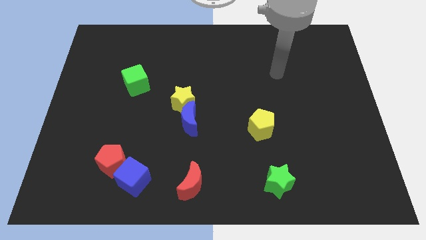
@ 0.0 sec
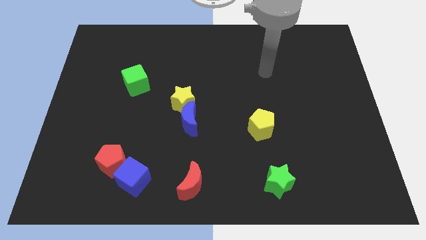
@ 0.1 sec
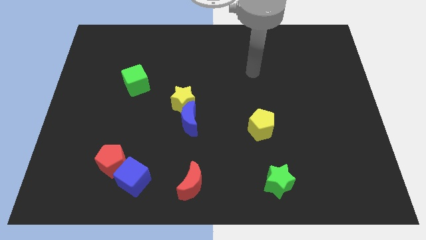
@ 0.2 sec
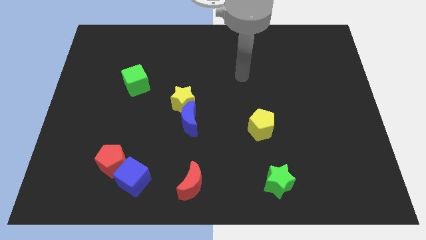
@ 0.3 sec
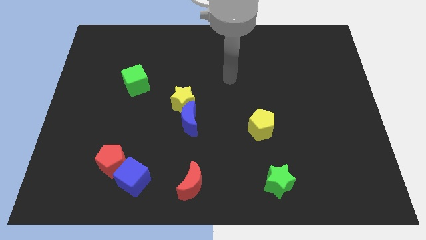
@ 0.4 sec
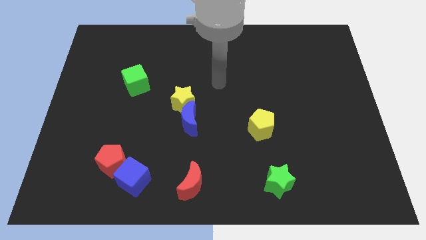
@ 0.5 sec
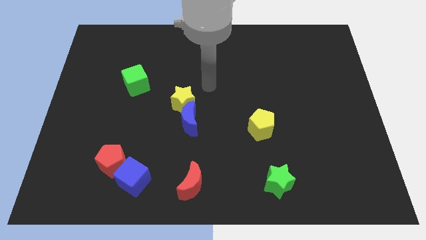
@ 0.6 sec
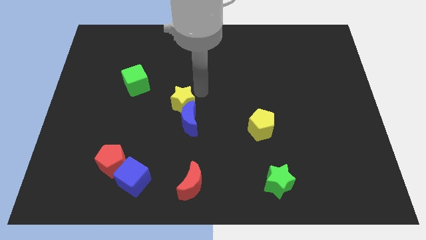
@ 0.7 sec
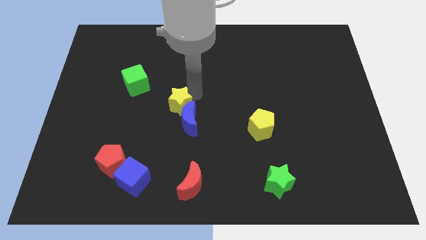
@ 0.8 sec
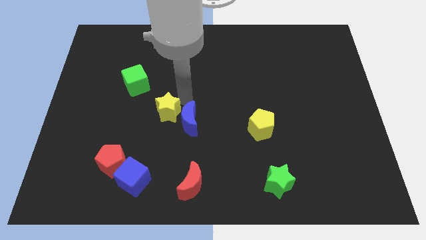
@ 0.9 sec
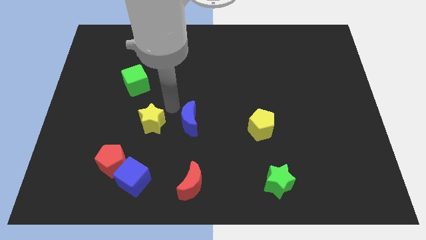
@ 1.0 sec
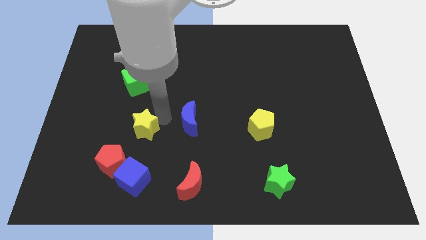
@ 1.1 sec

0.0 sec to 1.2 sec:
separate the blue moon from the yellow star

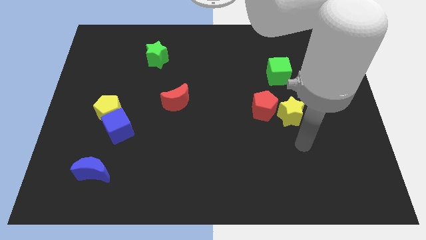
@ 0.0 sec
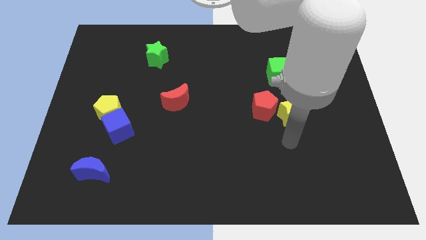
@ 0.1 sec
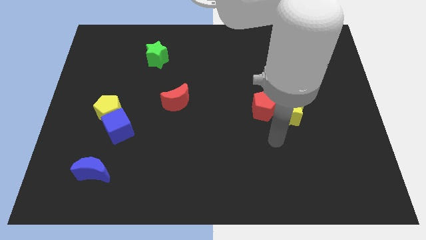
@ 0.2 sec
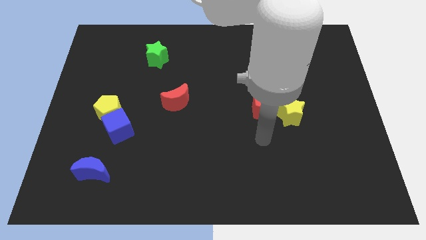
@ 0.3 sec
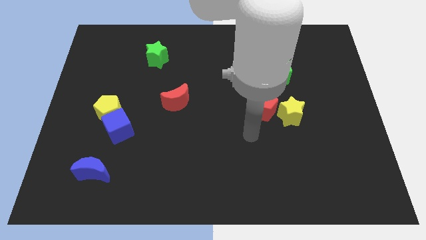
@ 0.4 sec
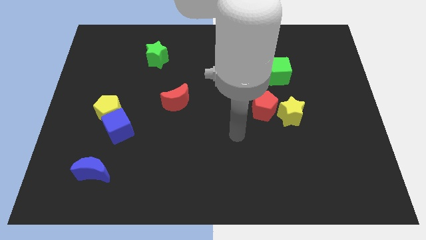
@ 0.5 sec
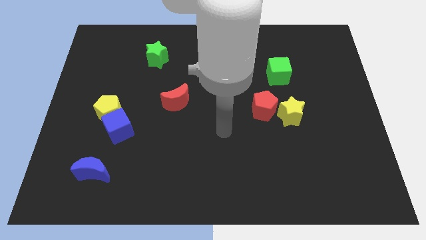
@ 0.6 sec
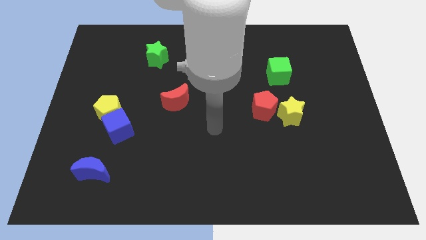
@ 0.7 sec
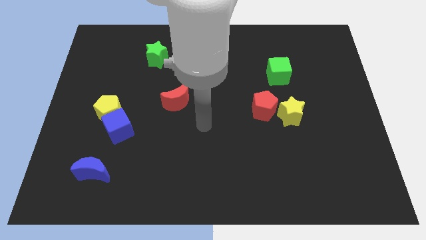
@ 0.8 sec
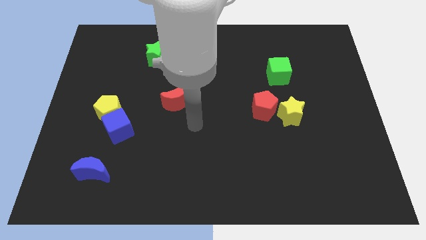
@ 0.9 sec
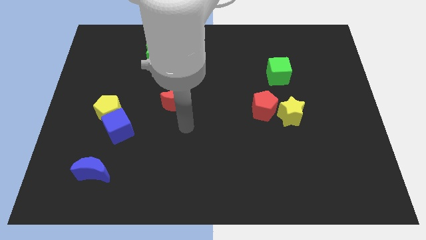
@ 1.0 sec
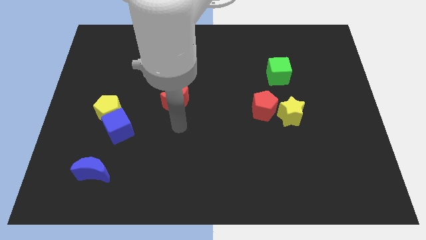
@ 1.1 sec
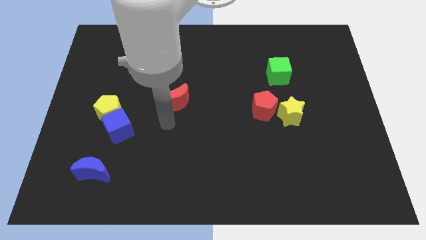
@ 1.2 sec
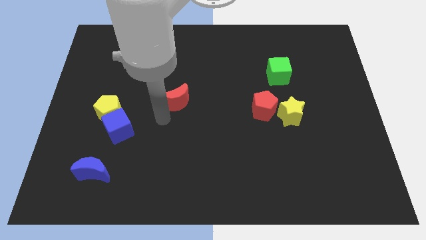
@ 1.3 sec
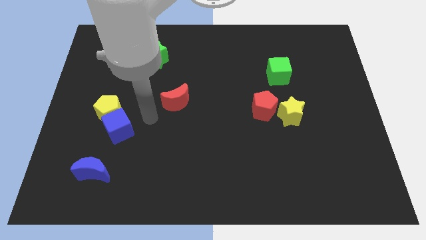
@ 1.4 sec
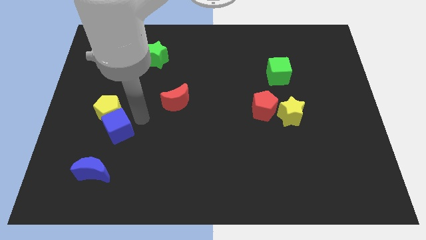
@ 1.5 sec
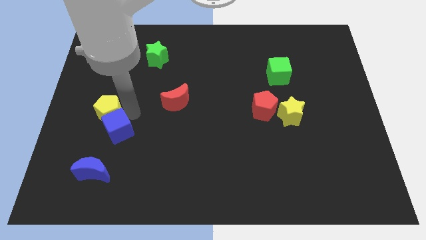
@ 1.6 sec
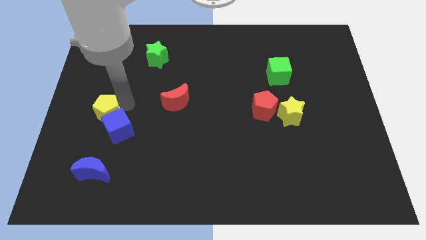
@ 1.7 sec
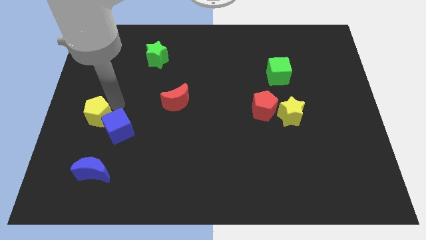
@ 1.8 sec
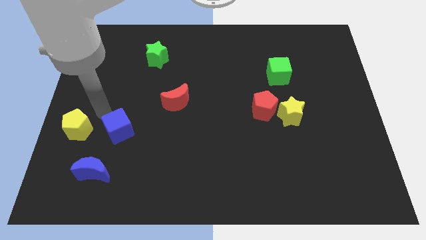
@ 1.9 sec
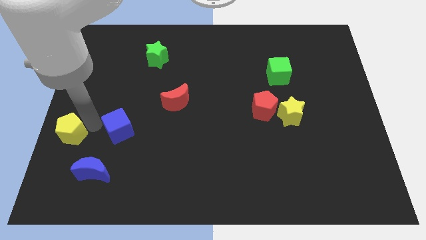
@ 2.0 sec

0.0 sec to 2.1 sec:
move the blue cube away from the yellow pentagon

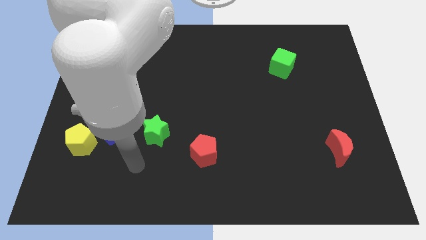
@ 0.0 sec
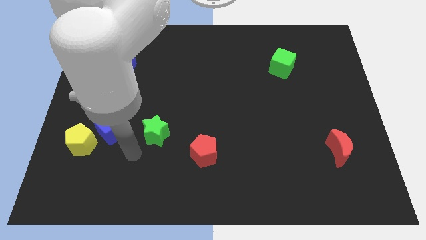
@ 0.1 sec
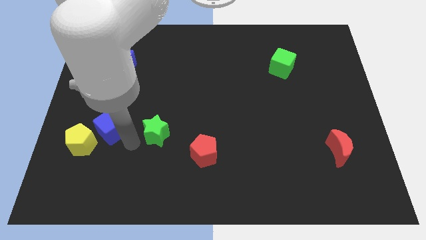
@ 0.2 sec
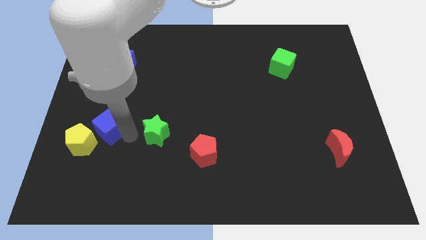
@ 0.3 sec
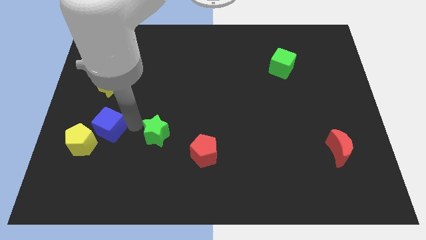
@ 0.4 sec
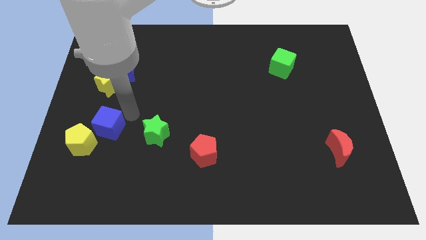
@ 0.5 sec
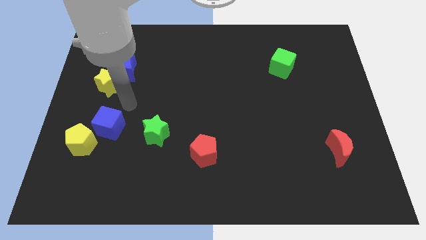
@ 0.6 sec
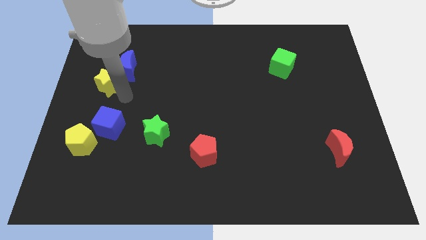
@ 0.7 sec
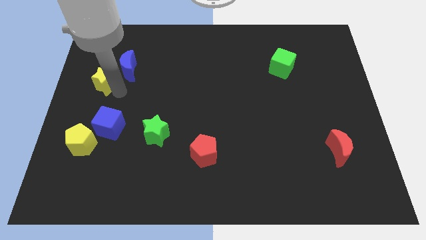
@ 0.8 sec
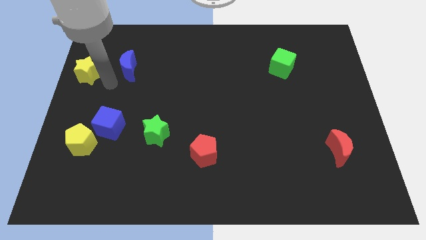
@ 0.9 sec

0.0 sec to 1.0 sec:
pull the blue moon apart from the yellow star

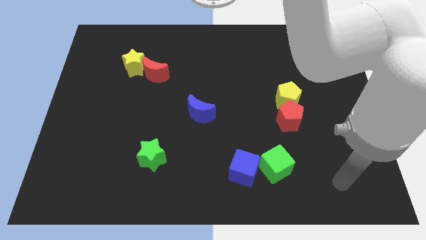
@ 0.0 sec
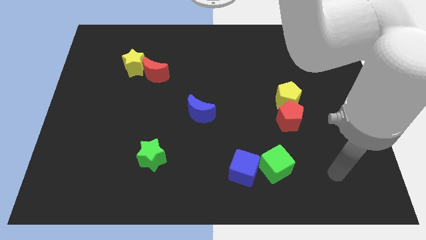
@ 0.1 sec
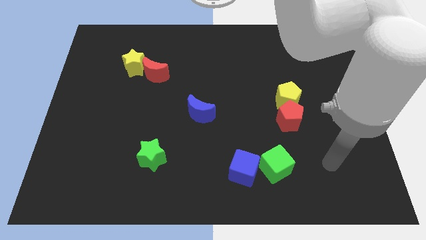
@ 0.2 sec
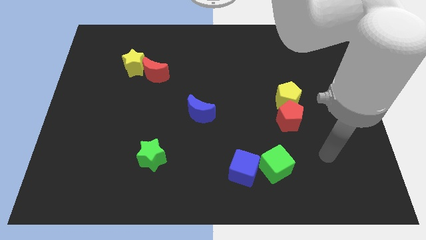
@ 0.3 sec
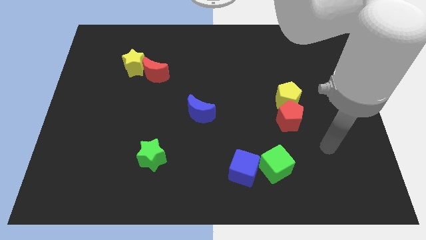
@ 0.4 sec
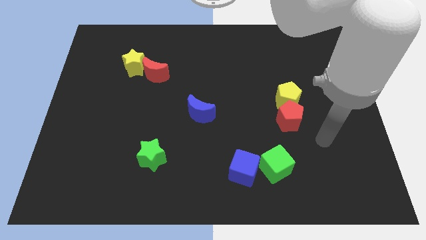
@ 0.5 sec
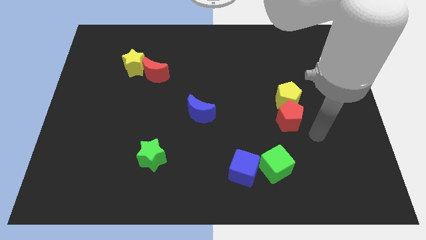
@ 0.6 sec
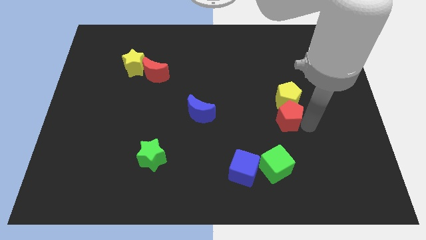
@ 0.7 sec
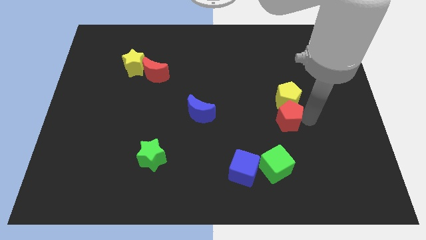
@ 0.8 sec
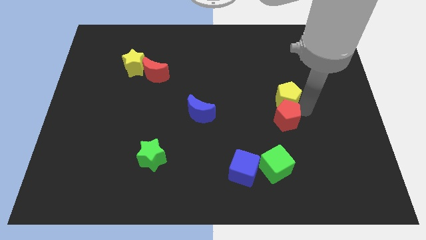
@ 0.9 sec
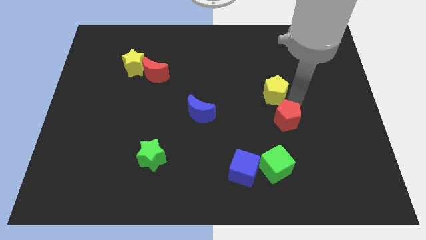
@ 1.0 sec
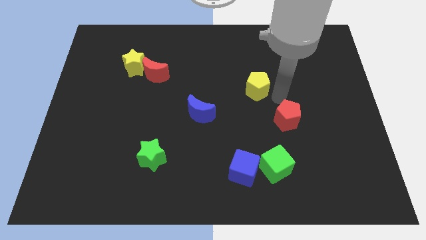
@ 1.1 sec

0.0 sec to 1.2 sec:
pull the red pentagon apart from the yellow pentagon

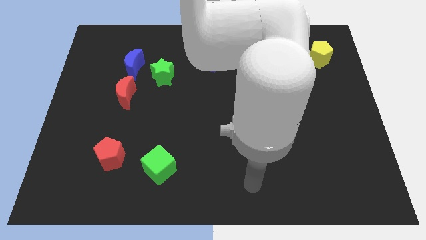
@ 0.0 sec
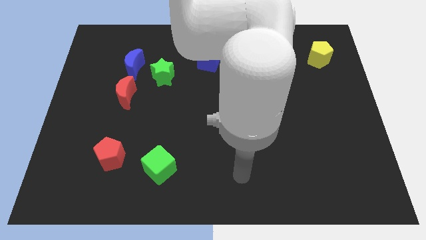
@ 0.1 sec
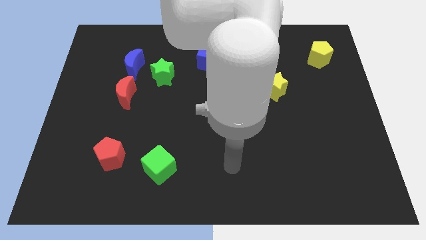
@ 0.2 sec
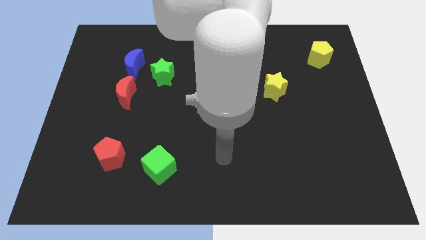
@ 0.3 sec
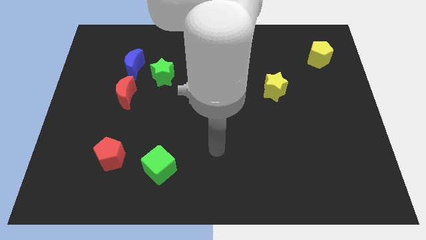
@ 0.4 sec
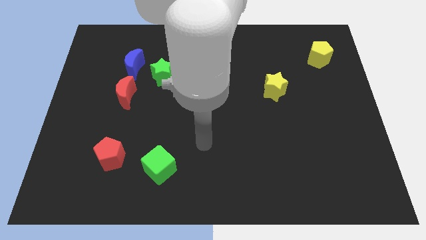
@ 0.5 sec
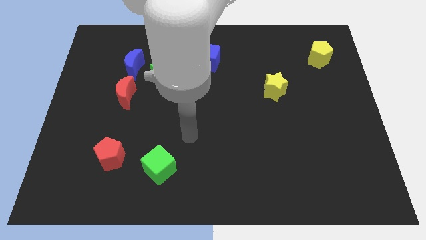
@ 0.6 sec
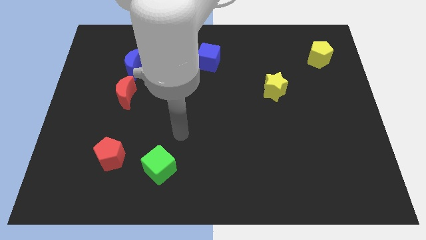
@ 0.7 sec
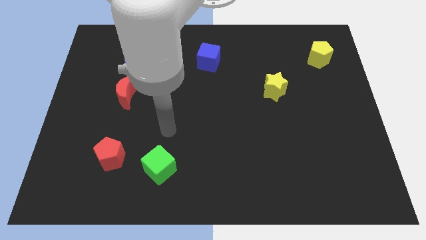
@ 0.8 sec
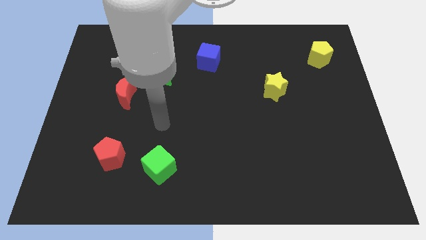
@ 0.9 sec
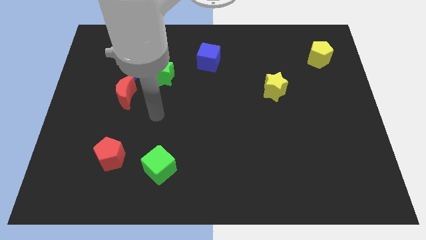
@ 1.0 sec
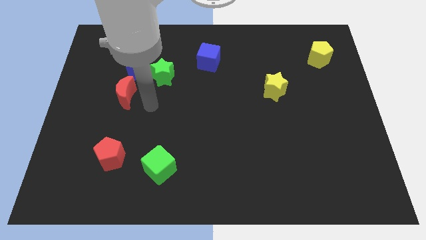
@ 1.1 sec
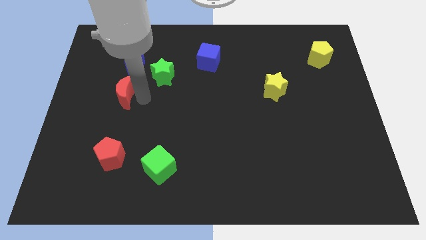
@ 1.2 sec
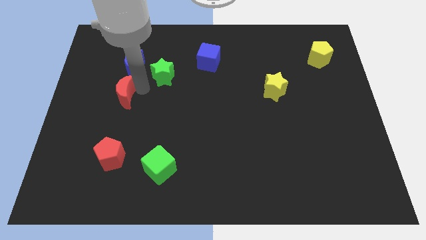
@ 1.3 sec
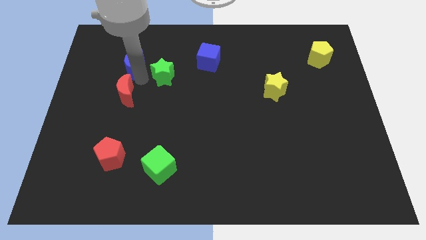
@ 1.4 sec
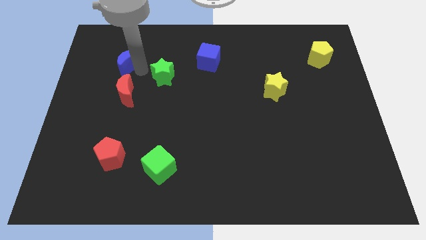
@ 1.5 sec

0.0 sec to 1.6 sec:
move the green star away from the blue moon

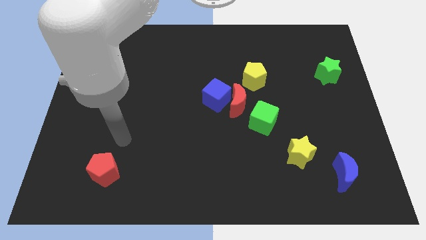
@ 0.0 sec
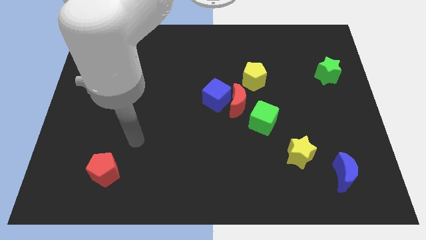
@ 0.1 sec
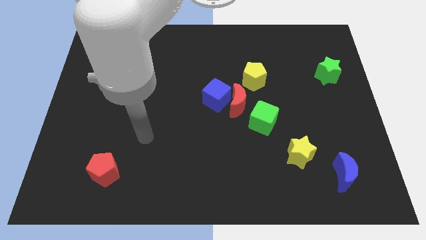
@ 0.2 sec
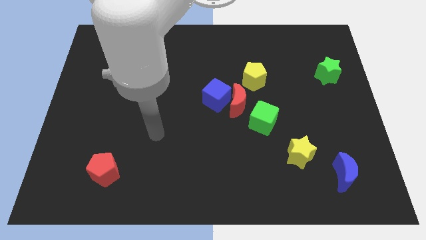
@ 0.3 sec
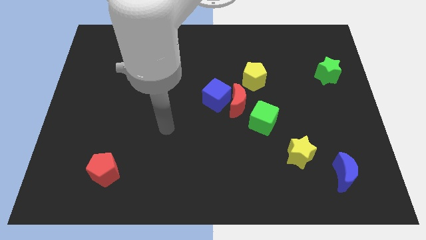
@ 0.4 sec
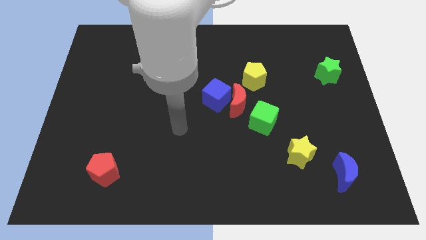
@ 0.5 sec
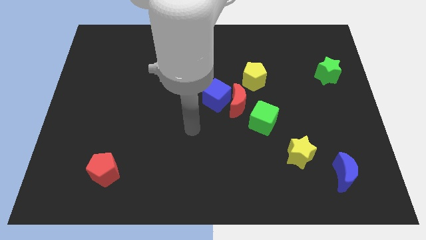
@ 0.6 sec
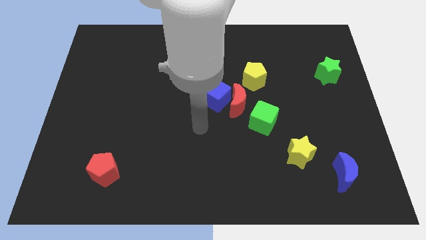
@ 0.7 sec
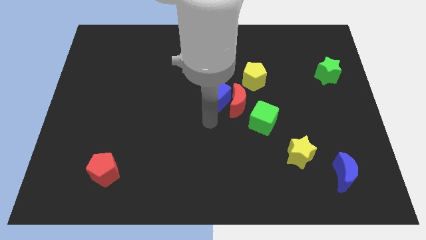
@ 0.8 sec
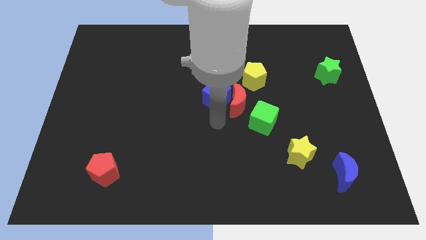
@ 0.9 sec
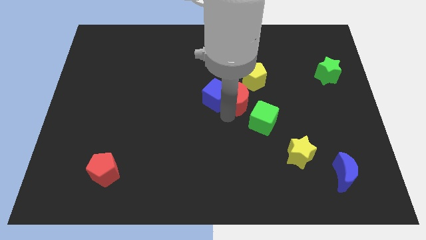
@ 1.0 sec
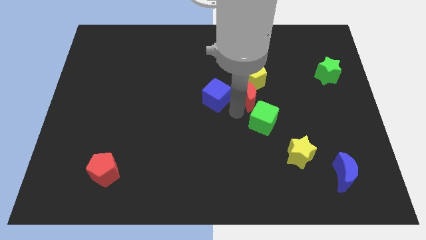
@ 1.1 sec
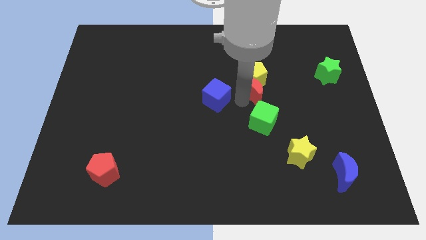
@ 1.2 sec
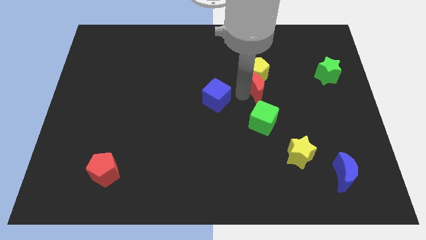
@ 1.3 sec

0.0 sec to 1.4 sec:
pull the blue cube apart from the red moon

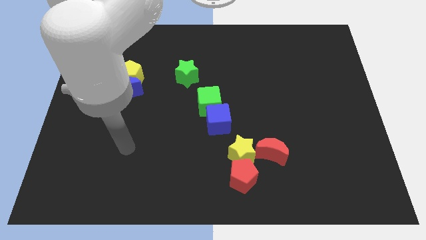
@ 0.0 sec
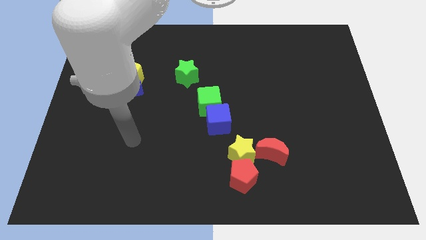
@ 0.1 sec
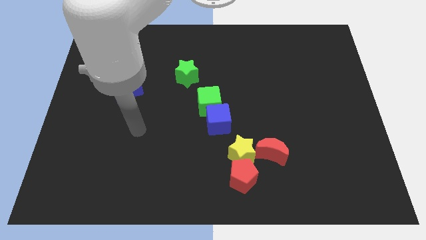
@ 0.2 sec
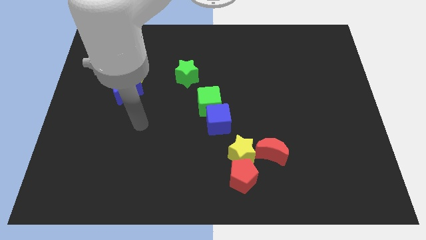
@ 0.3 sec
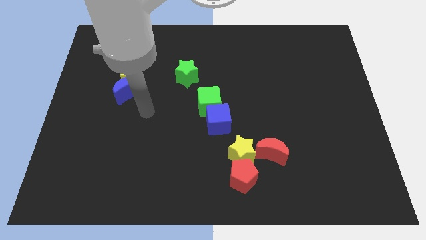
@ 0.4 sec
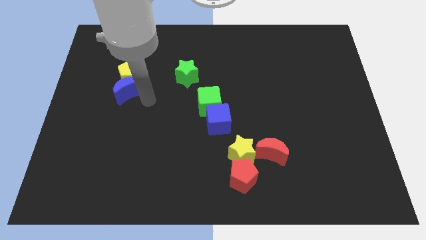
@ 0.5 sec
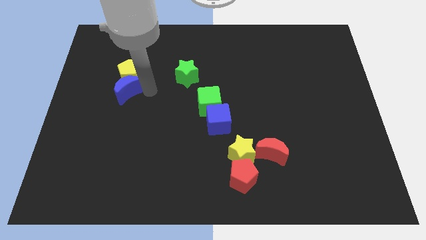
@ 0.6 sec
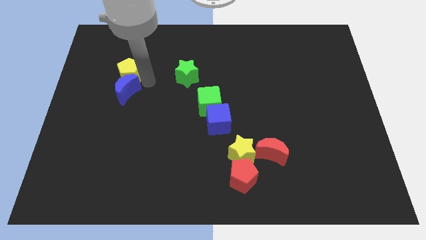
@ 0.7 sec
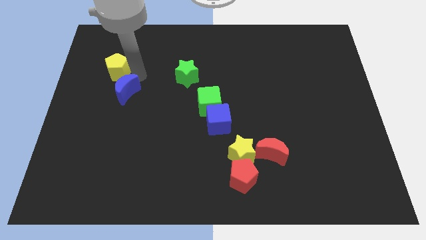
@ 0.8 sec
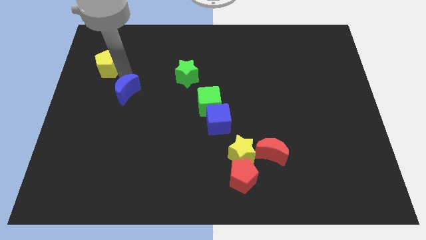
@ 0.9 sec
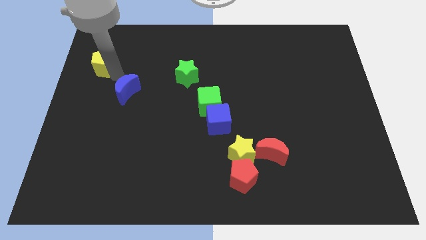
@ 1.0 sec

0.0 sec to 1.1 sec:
move the blue moon away from the yellow pentagon
